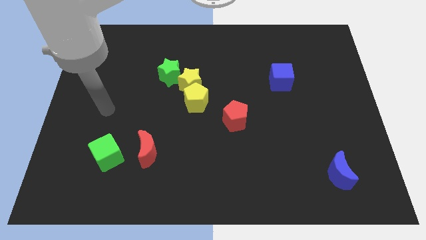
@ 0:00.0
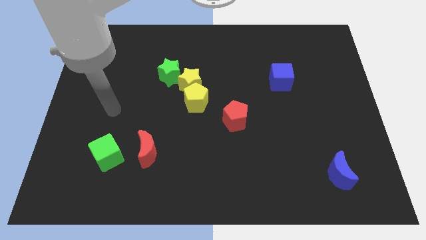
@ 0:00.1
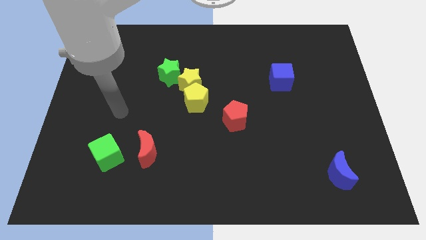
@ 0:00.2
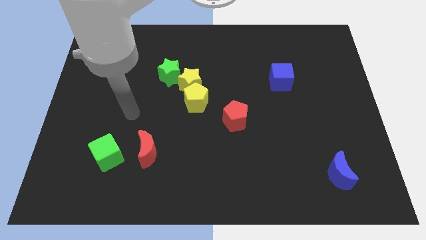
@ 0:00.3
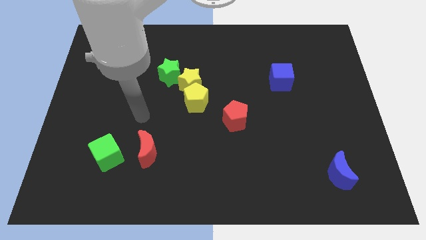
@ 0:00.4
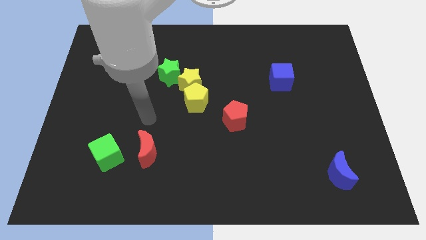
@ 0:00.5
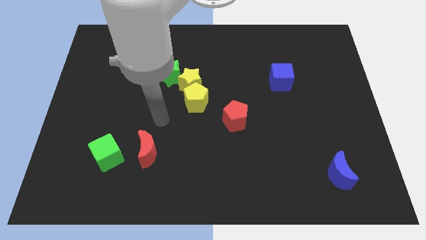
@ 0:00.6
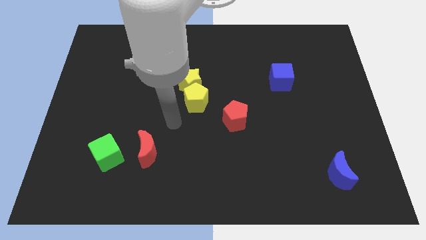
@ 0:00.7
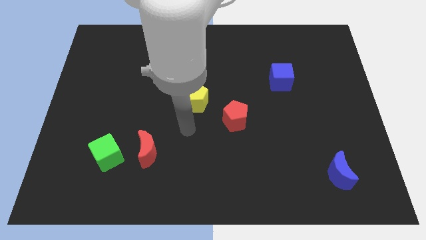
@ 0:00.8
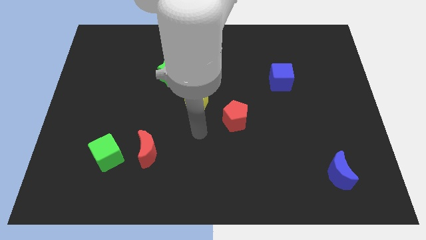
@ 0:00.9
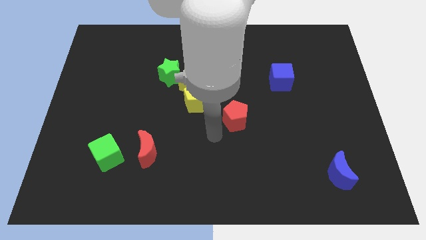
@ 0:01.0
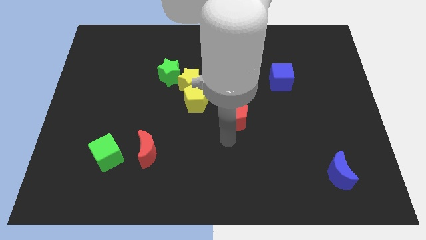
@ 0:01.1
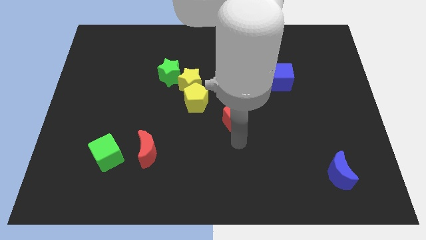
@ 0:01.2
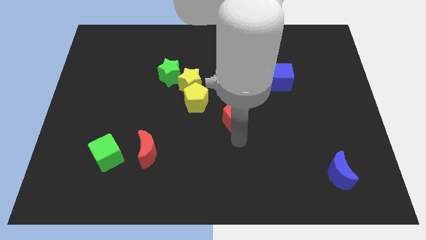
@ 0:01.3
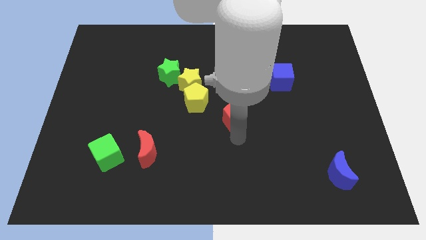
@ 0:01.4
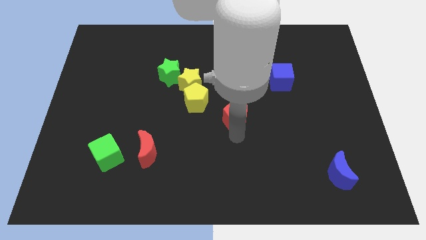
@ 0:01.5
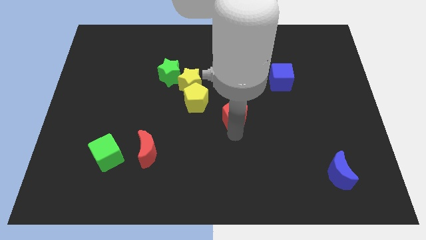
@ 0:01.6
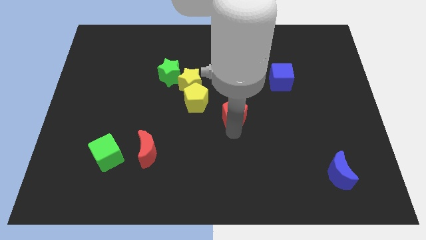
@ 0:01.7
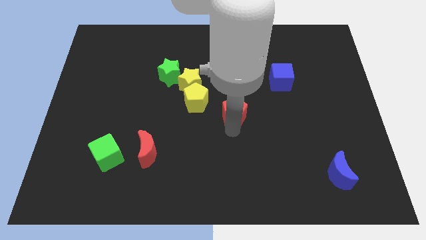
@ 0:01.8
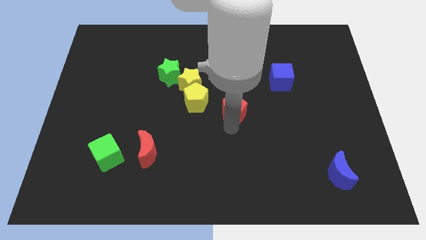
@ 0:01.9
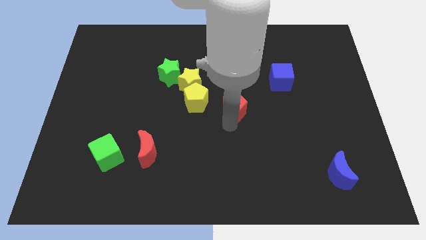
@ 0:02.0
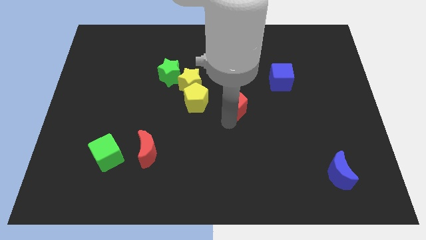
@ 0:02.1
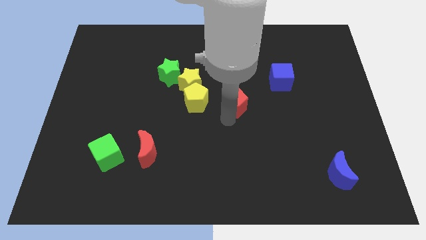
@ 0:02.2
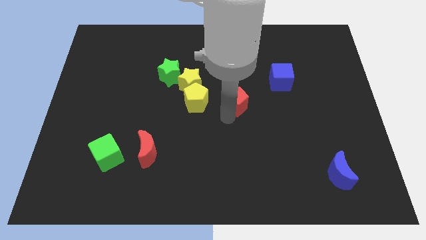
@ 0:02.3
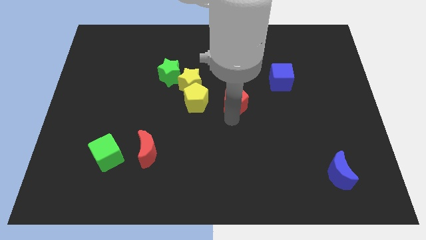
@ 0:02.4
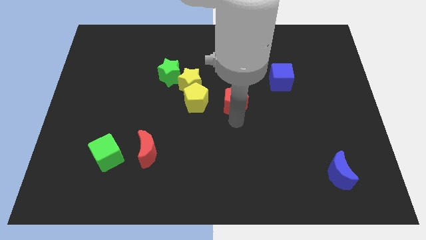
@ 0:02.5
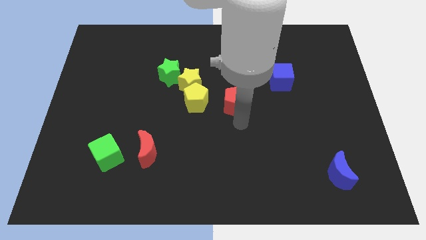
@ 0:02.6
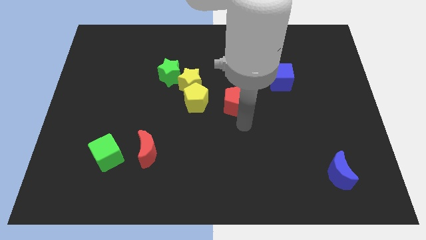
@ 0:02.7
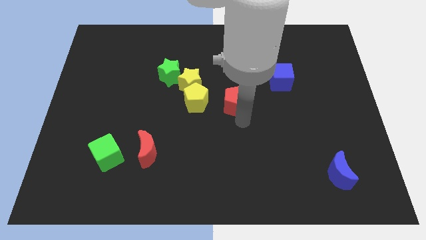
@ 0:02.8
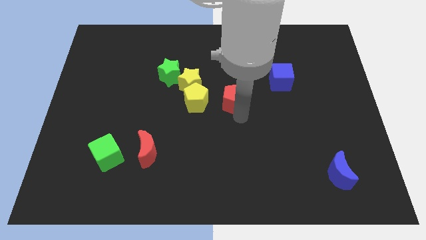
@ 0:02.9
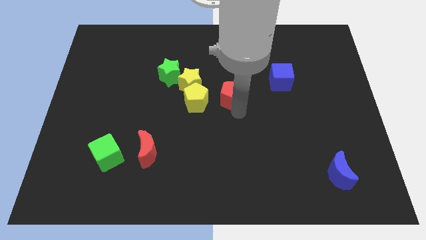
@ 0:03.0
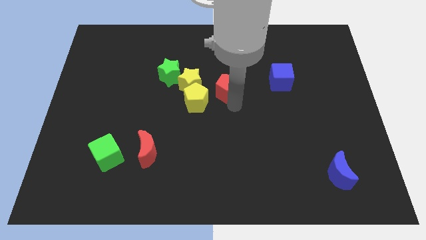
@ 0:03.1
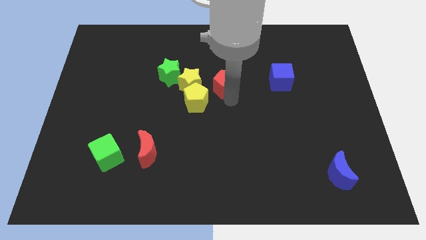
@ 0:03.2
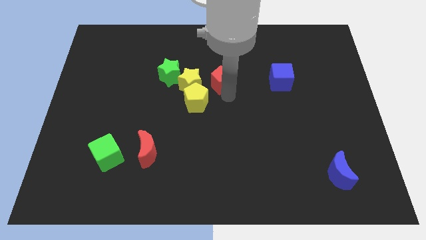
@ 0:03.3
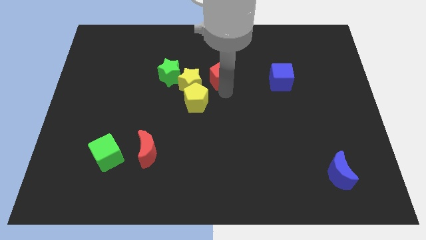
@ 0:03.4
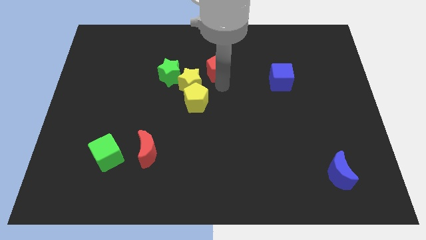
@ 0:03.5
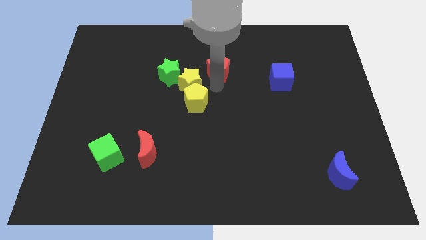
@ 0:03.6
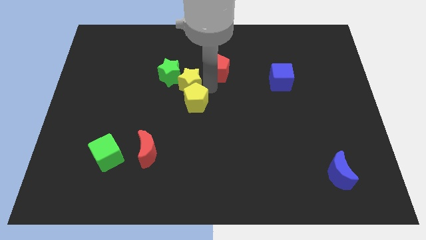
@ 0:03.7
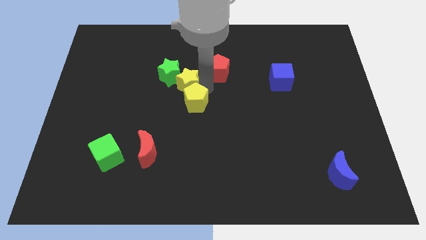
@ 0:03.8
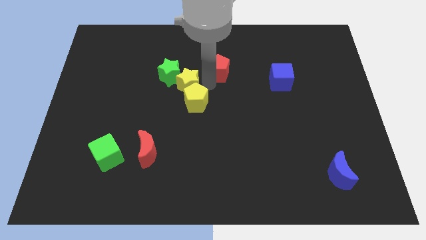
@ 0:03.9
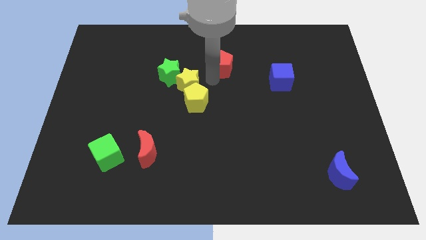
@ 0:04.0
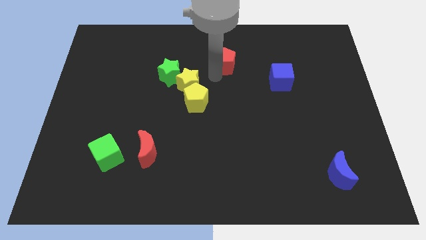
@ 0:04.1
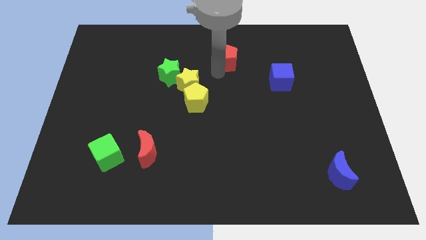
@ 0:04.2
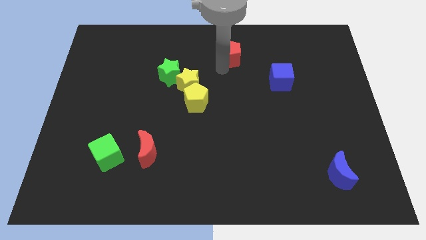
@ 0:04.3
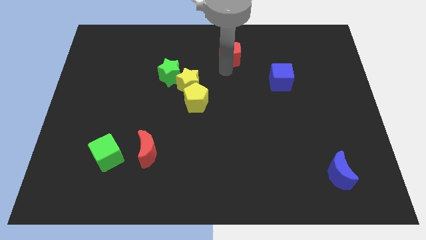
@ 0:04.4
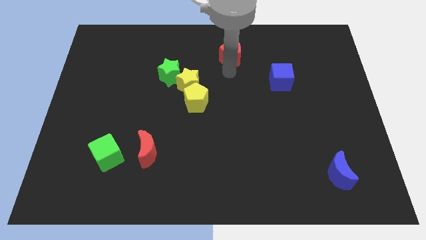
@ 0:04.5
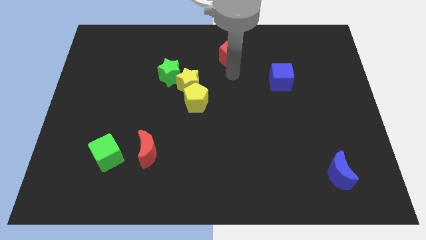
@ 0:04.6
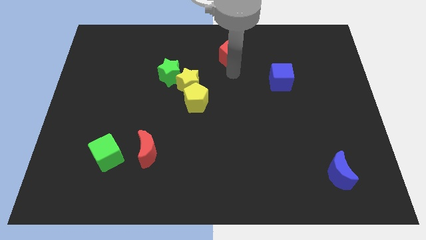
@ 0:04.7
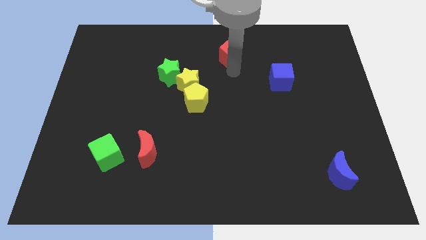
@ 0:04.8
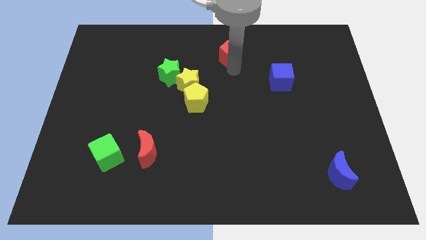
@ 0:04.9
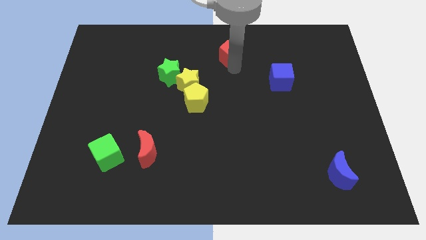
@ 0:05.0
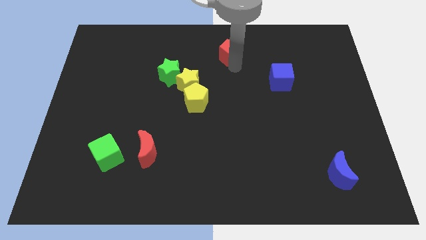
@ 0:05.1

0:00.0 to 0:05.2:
slide the red pentagon to the top

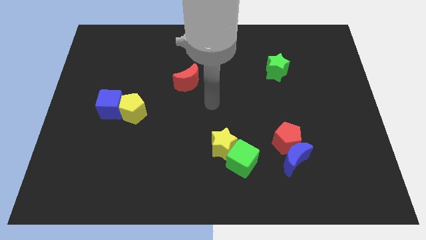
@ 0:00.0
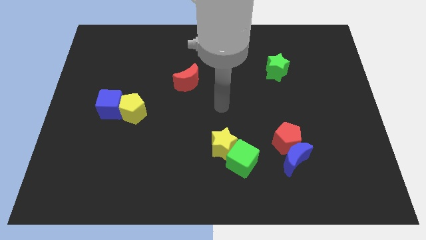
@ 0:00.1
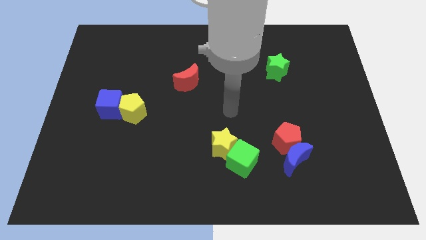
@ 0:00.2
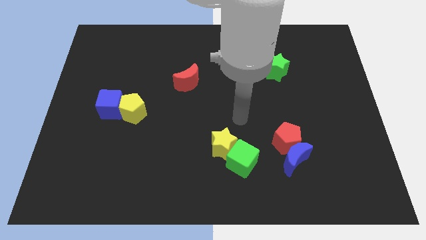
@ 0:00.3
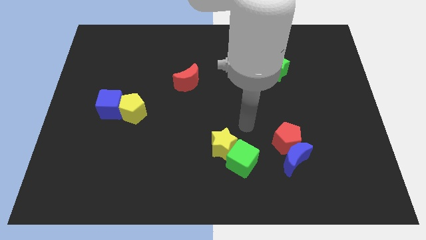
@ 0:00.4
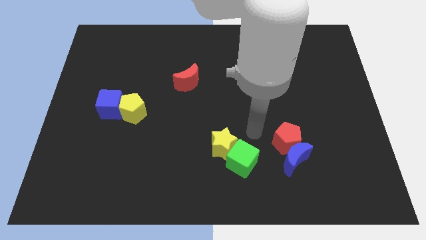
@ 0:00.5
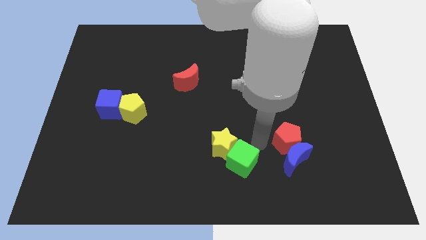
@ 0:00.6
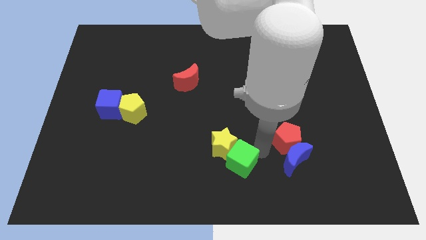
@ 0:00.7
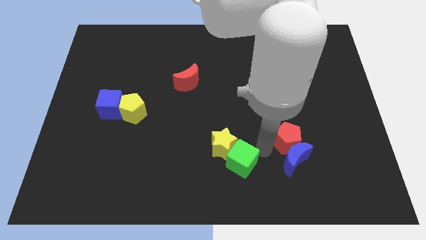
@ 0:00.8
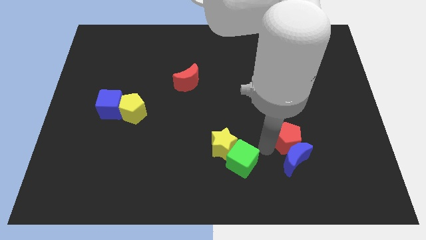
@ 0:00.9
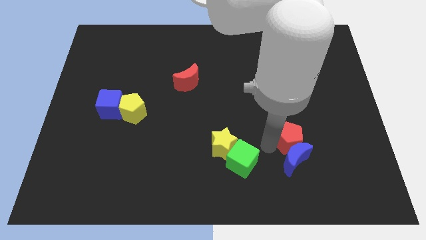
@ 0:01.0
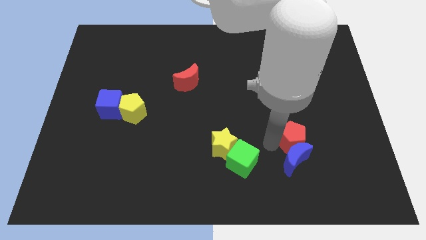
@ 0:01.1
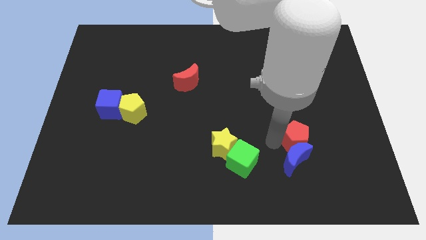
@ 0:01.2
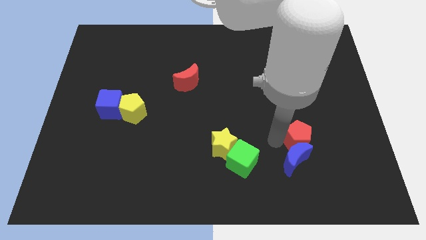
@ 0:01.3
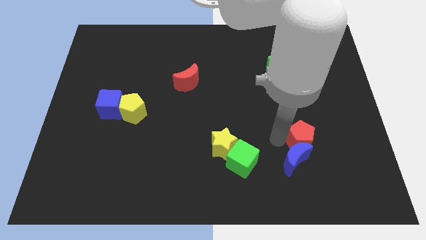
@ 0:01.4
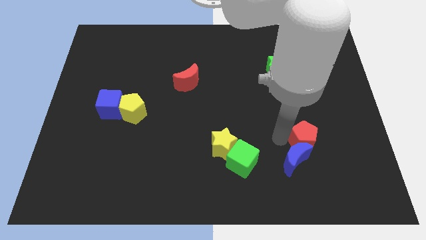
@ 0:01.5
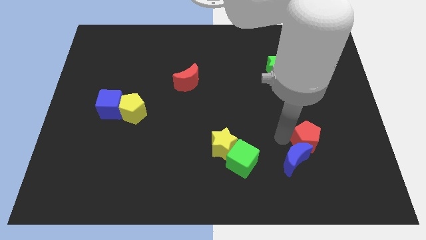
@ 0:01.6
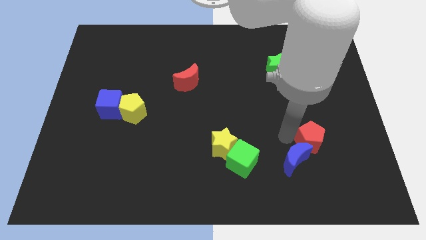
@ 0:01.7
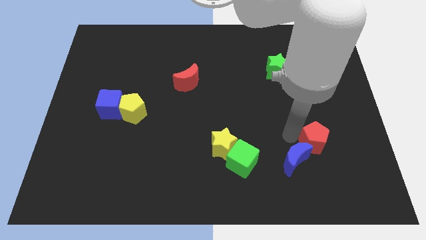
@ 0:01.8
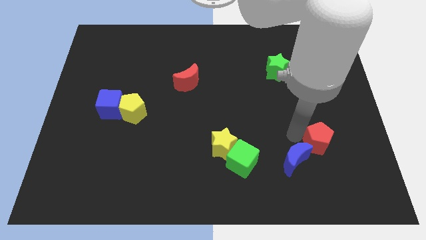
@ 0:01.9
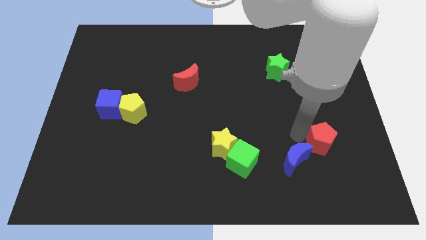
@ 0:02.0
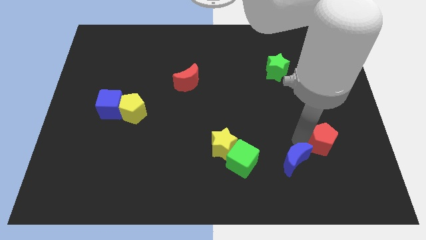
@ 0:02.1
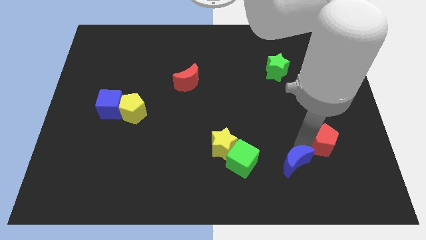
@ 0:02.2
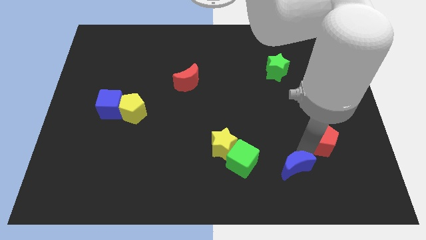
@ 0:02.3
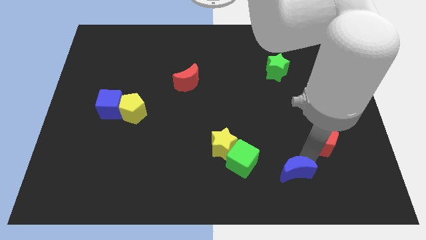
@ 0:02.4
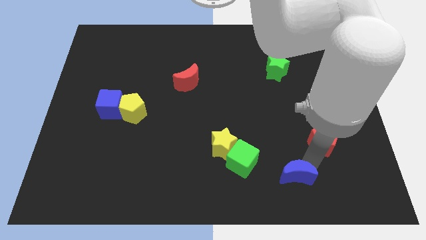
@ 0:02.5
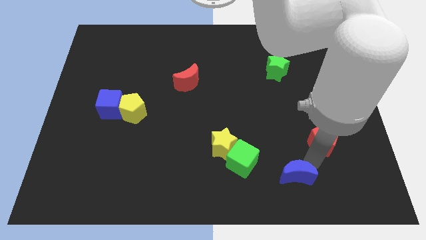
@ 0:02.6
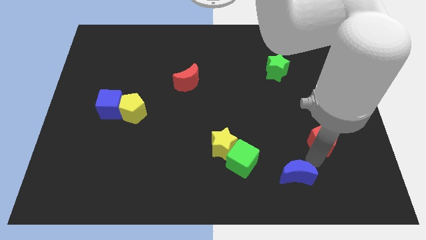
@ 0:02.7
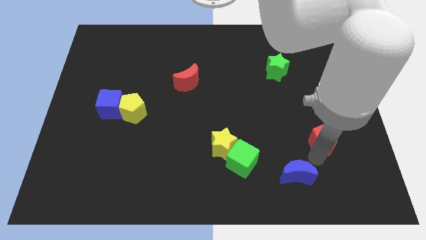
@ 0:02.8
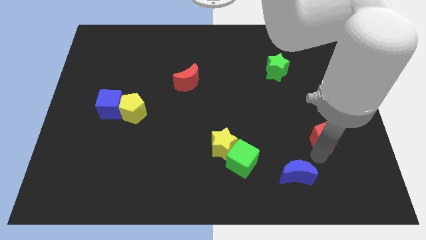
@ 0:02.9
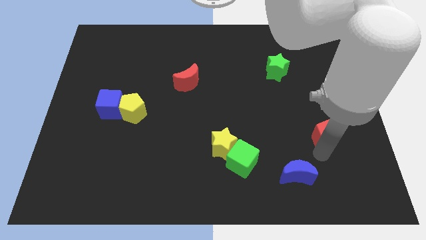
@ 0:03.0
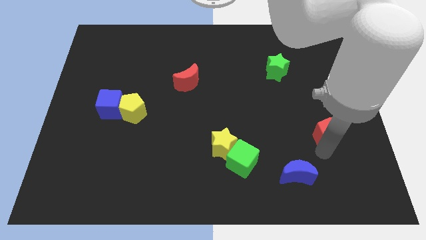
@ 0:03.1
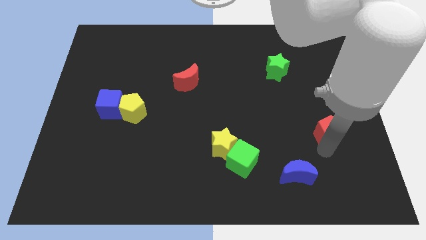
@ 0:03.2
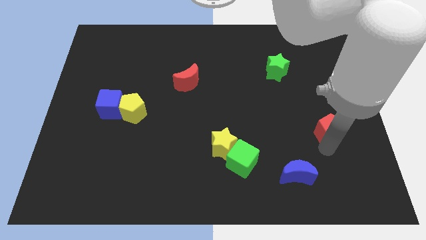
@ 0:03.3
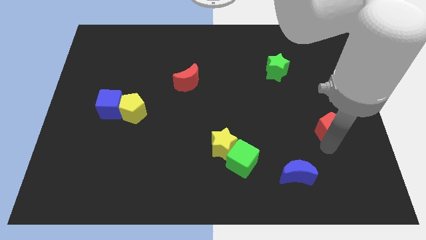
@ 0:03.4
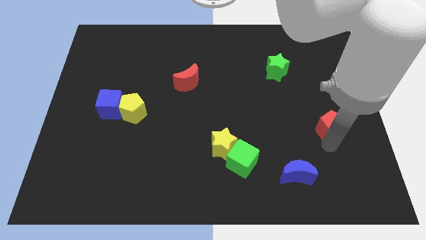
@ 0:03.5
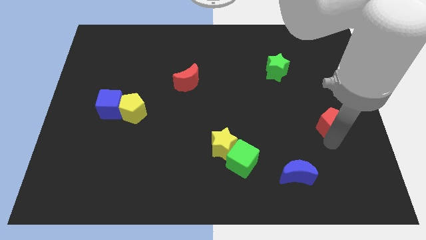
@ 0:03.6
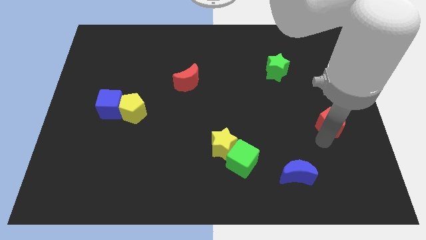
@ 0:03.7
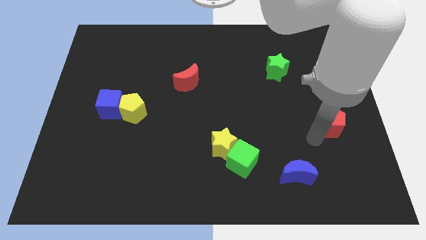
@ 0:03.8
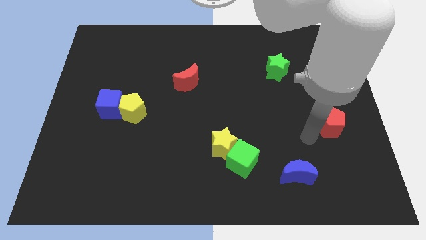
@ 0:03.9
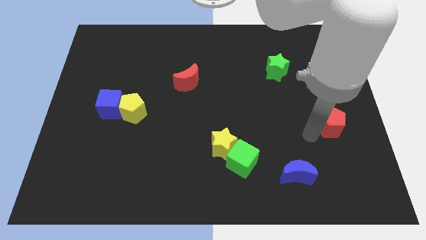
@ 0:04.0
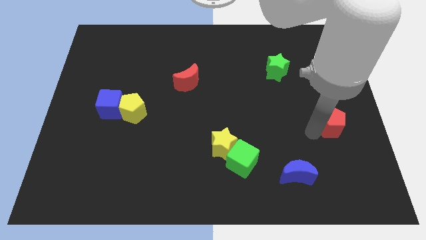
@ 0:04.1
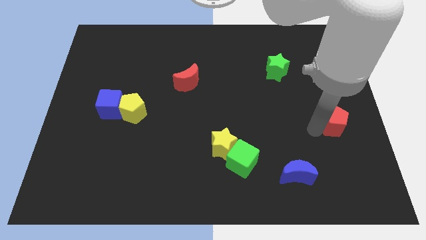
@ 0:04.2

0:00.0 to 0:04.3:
move the red pentagon to the center right
